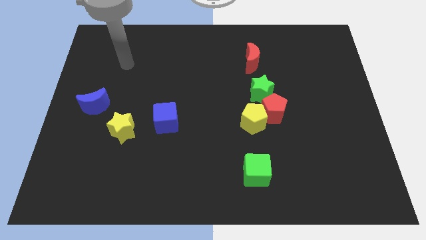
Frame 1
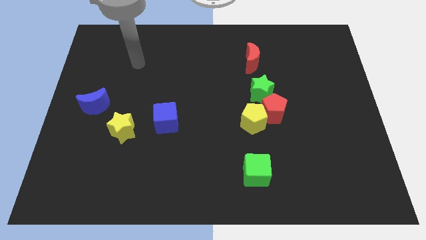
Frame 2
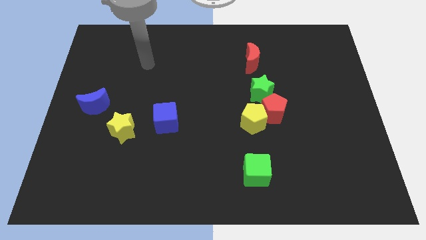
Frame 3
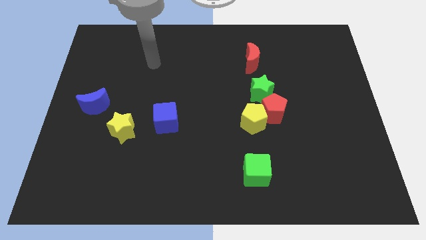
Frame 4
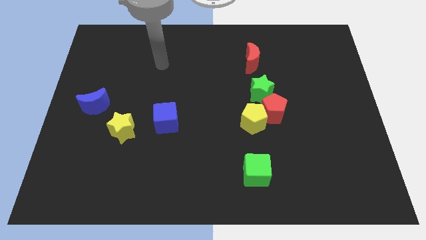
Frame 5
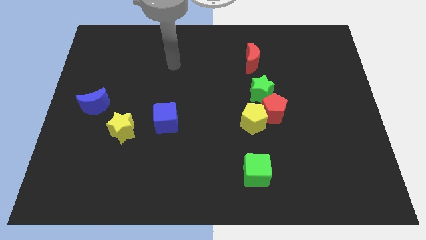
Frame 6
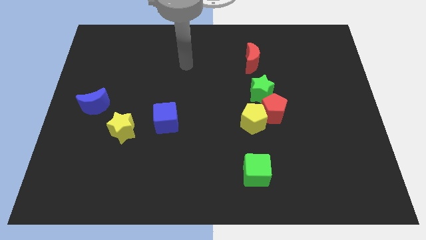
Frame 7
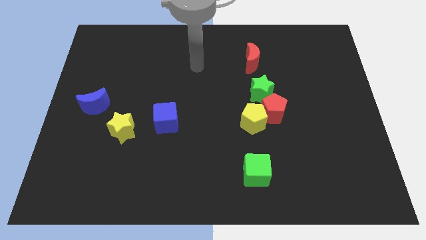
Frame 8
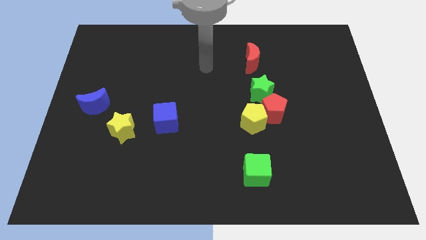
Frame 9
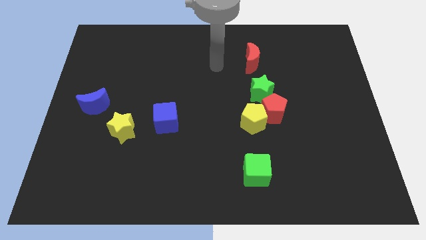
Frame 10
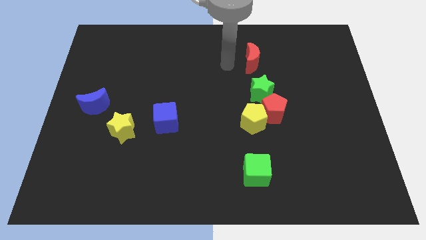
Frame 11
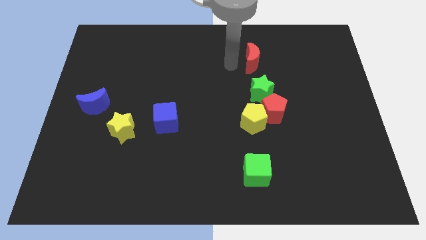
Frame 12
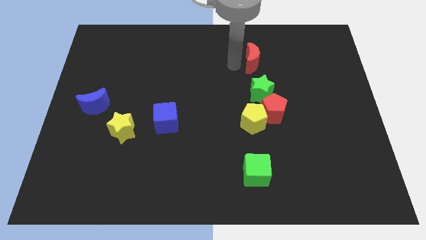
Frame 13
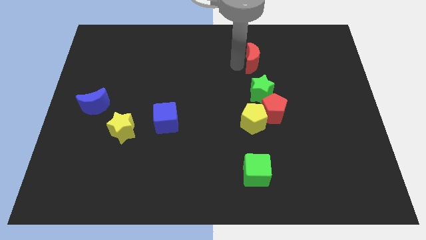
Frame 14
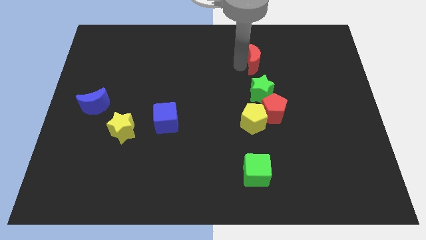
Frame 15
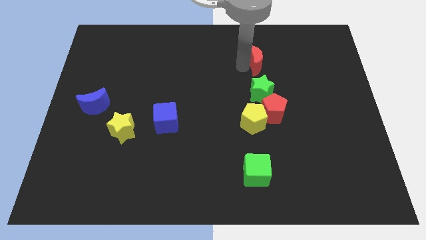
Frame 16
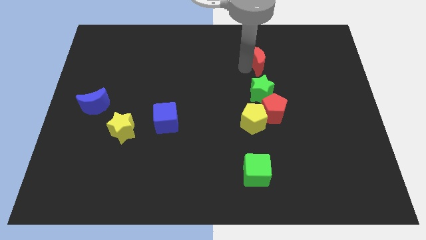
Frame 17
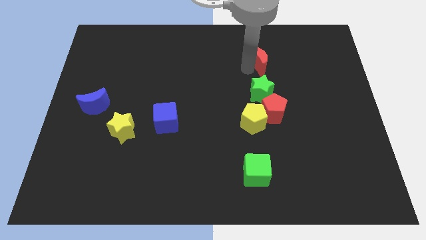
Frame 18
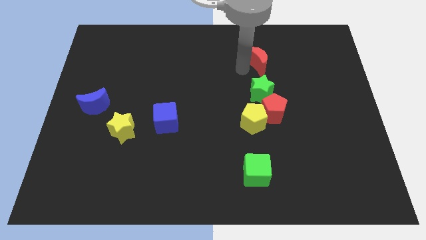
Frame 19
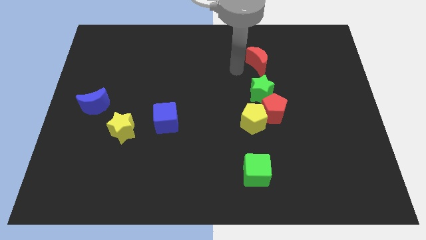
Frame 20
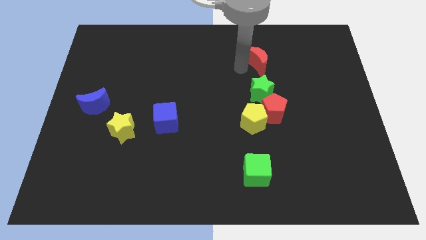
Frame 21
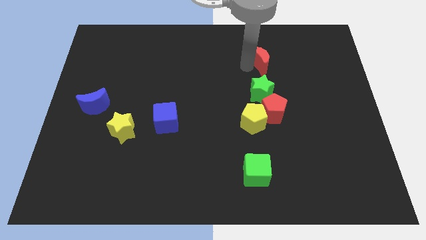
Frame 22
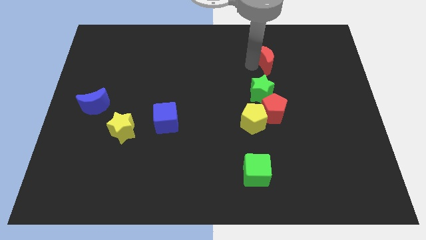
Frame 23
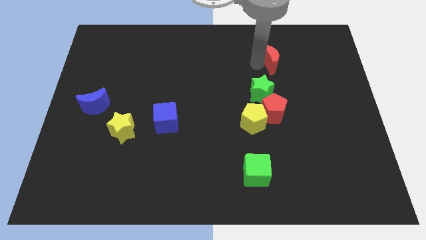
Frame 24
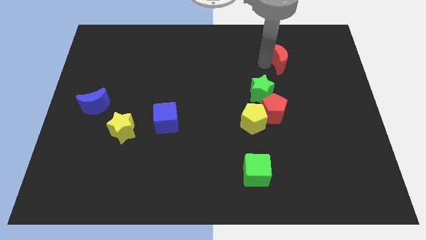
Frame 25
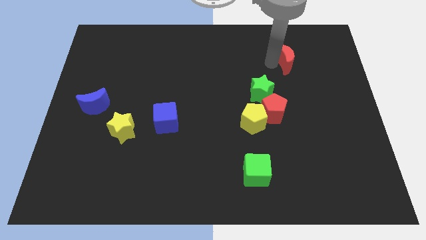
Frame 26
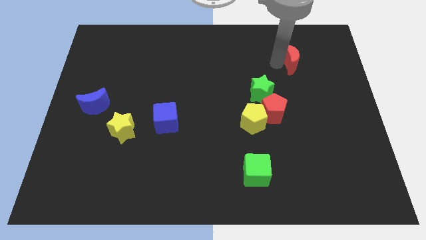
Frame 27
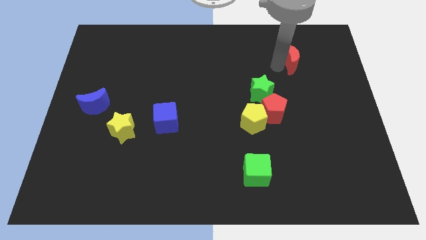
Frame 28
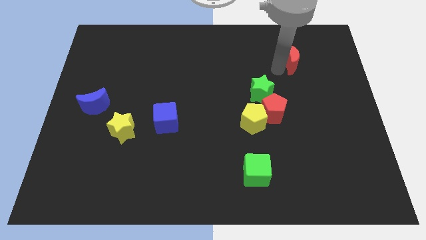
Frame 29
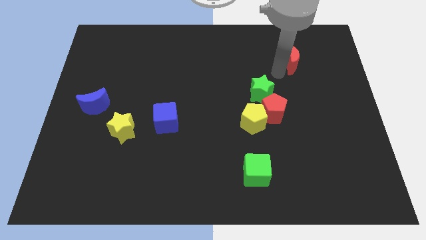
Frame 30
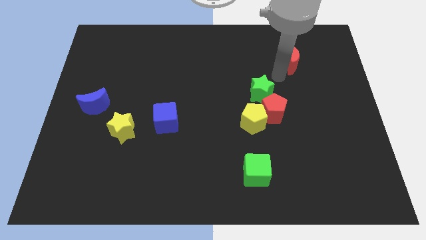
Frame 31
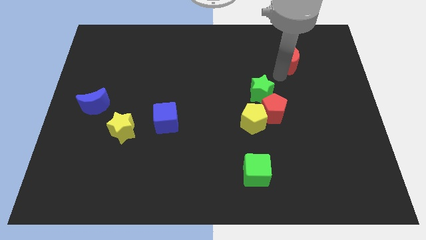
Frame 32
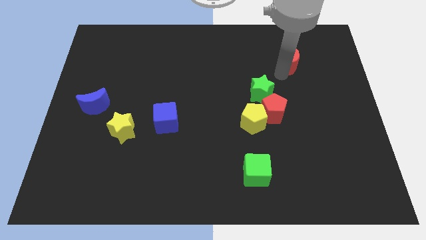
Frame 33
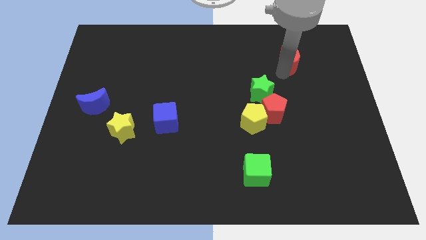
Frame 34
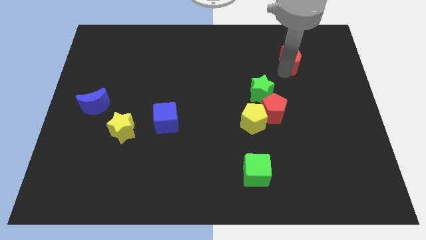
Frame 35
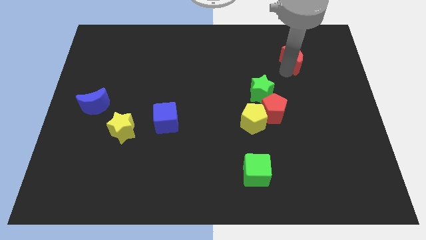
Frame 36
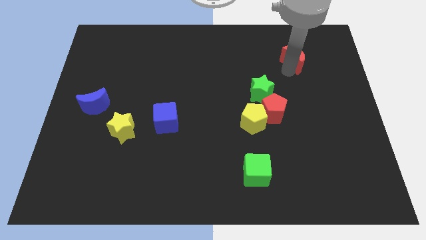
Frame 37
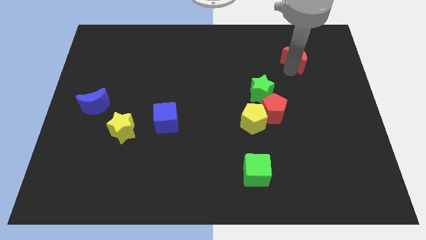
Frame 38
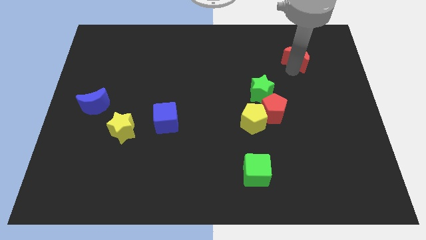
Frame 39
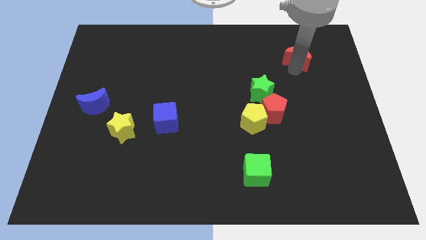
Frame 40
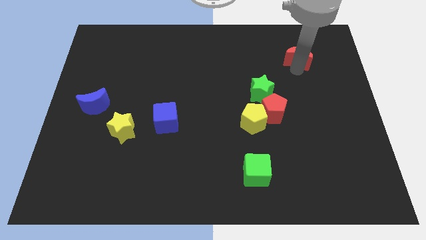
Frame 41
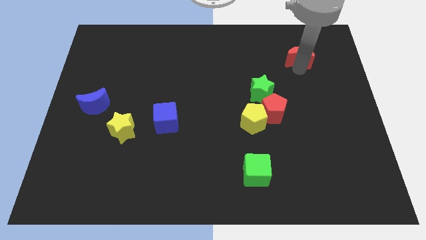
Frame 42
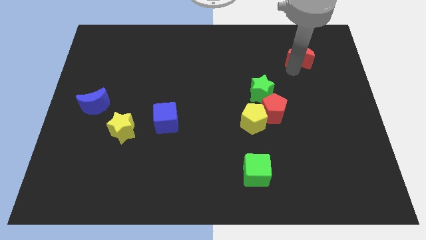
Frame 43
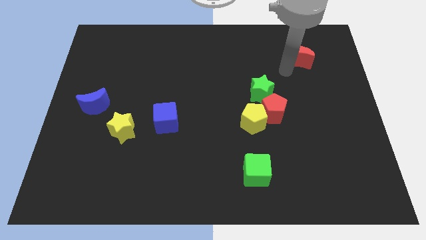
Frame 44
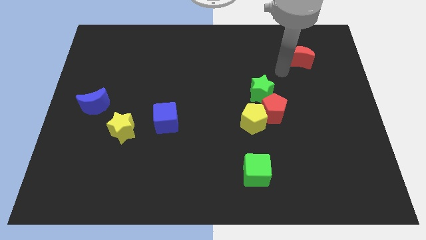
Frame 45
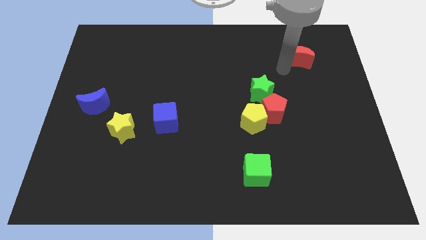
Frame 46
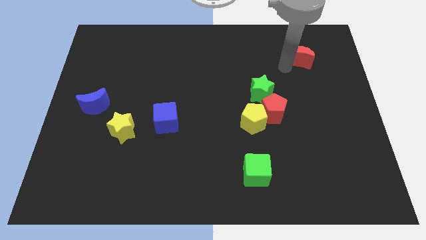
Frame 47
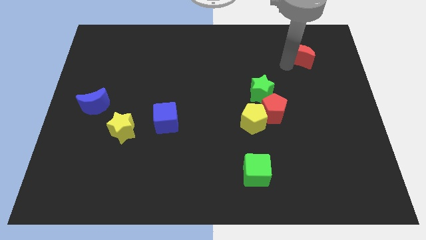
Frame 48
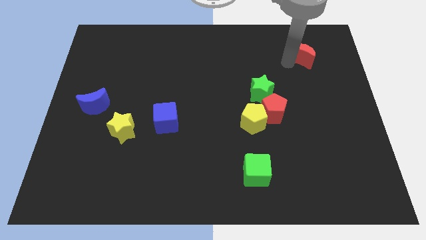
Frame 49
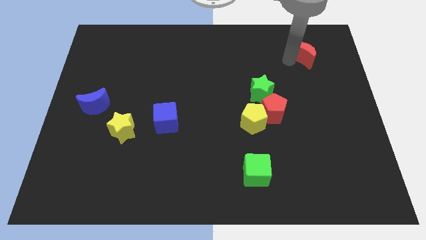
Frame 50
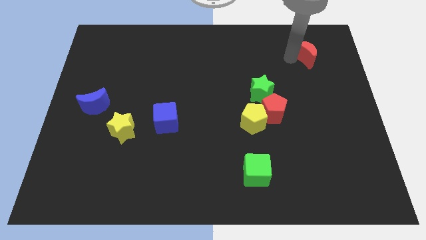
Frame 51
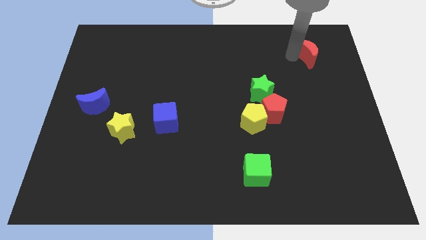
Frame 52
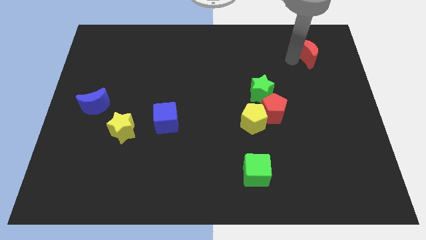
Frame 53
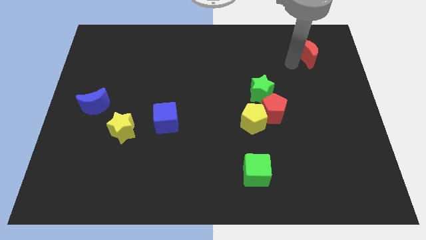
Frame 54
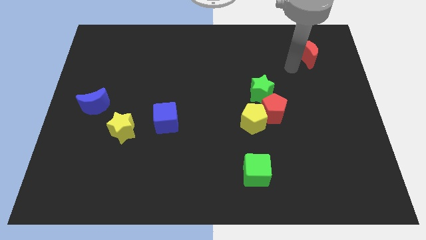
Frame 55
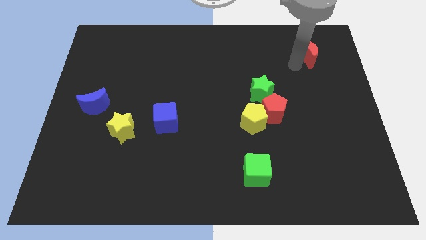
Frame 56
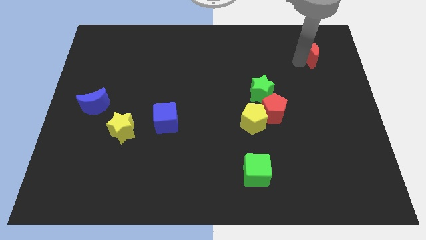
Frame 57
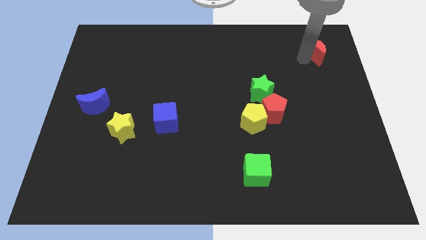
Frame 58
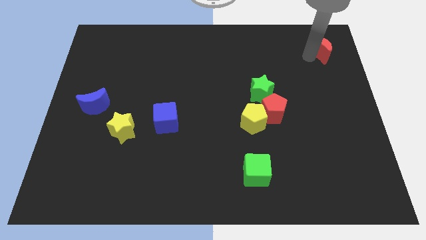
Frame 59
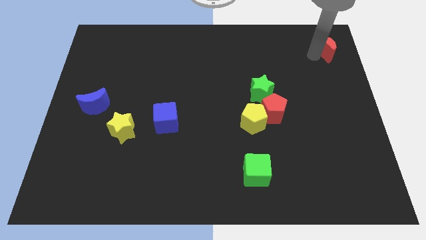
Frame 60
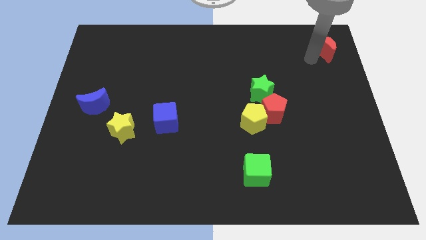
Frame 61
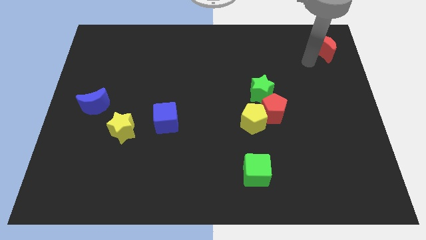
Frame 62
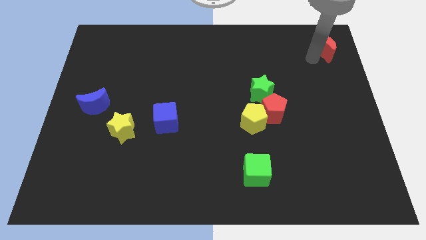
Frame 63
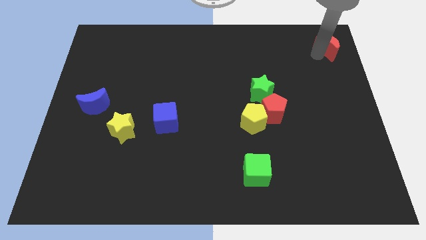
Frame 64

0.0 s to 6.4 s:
put the red moon to the top right corner
